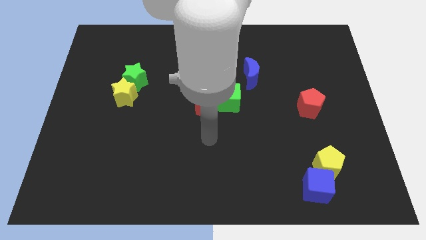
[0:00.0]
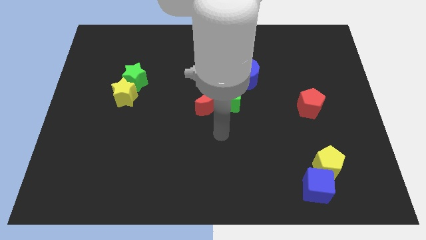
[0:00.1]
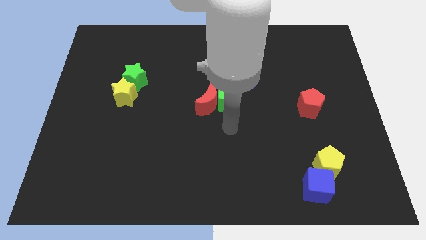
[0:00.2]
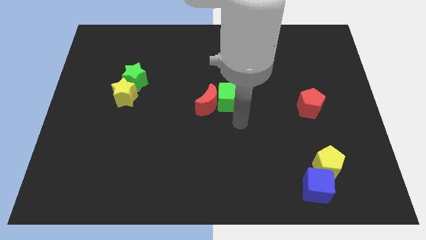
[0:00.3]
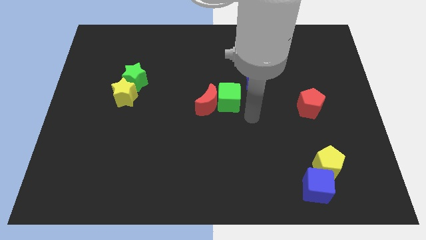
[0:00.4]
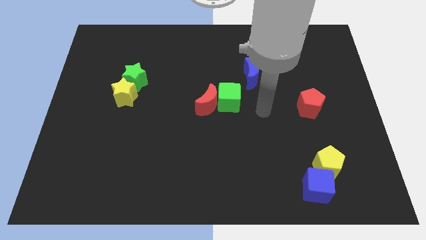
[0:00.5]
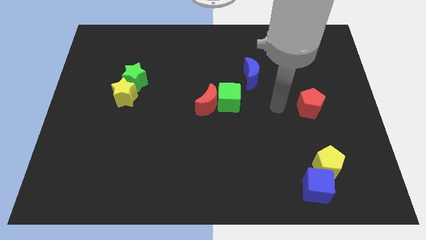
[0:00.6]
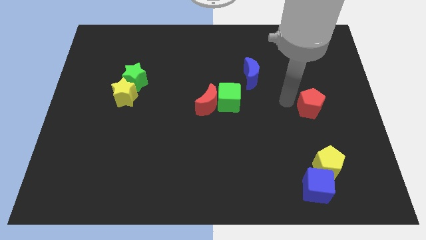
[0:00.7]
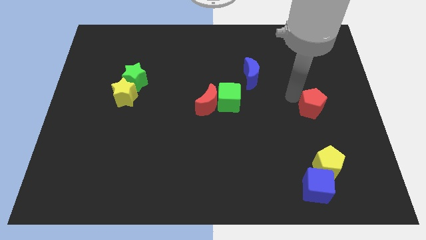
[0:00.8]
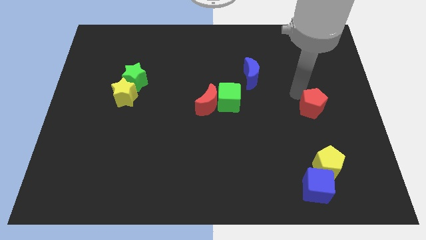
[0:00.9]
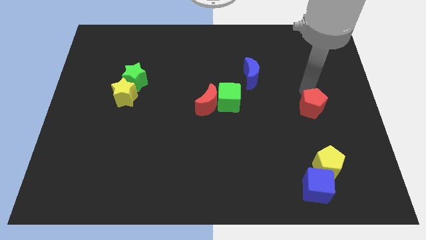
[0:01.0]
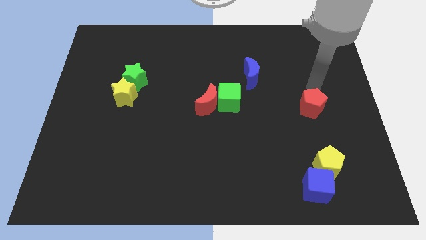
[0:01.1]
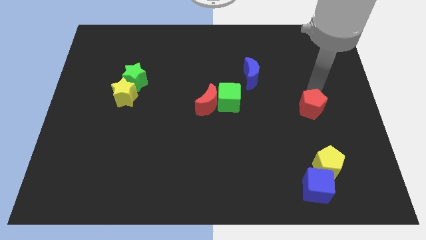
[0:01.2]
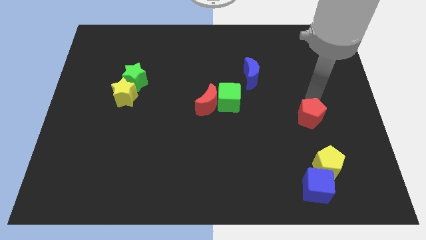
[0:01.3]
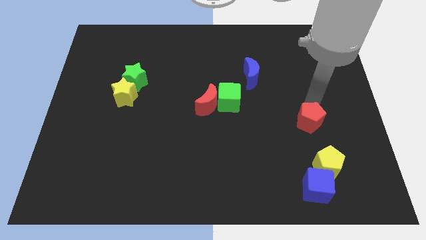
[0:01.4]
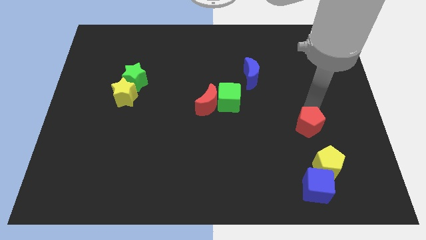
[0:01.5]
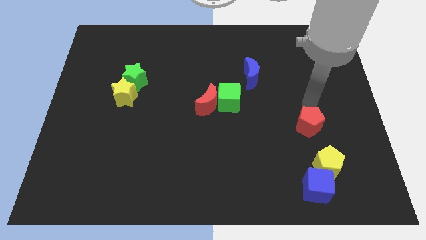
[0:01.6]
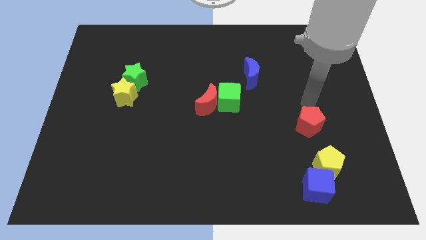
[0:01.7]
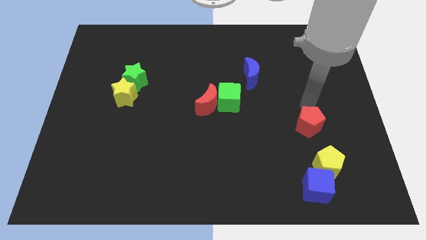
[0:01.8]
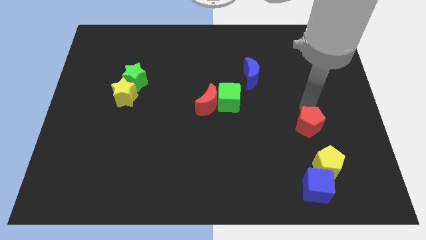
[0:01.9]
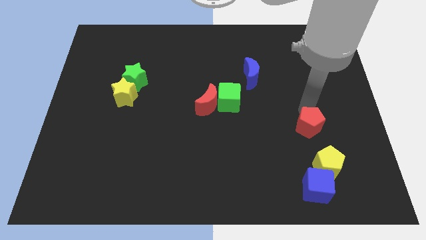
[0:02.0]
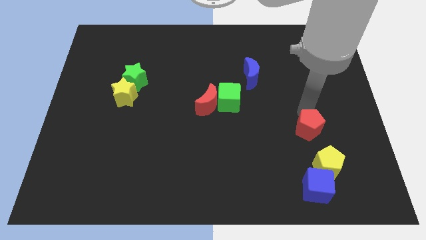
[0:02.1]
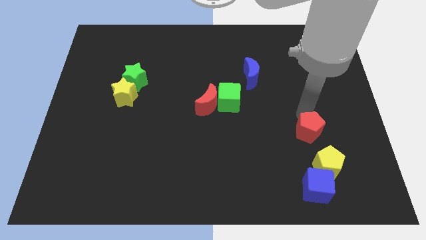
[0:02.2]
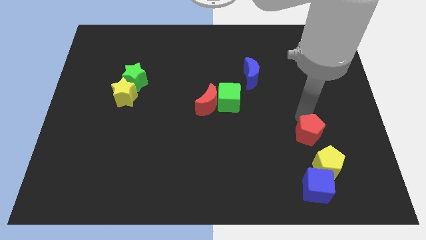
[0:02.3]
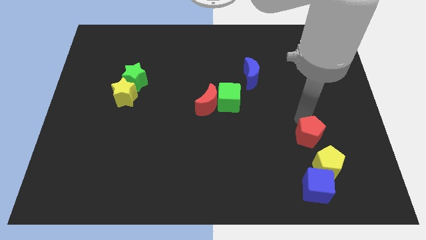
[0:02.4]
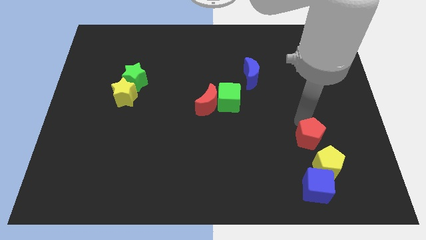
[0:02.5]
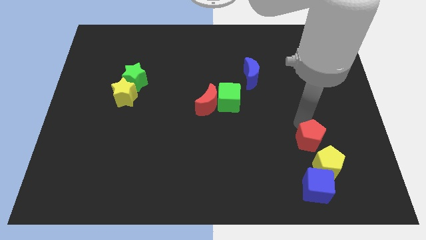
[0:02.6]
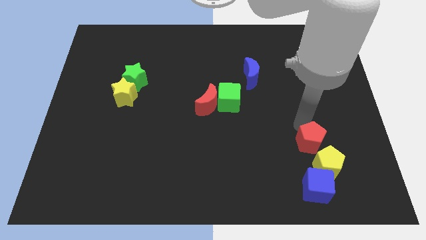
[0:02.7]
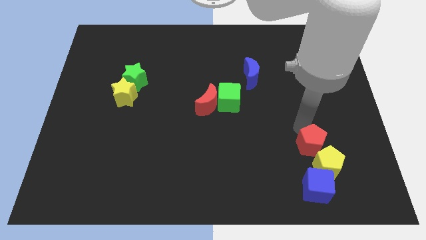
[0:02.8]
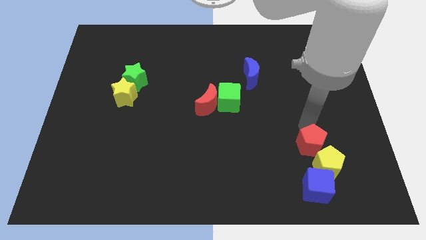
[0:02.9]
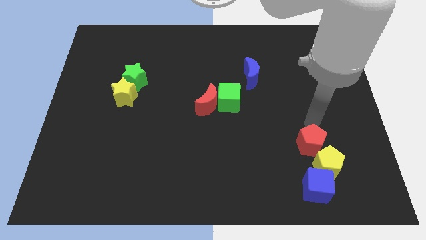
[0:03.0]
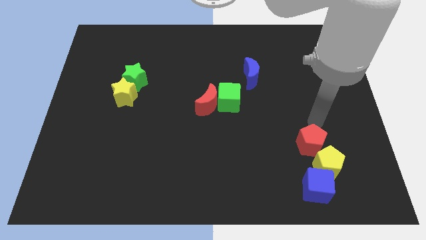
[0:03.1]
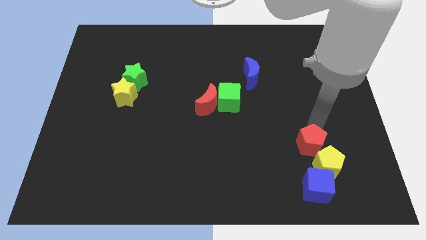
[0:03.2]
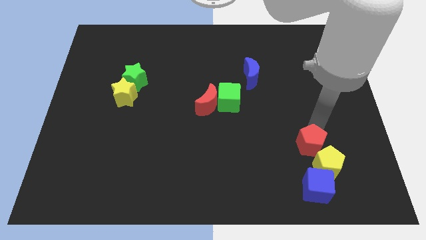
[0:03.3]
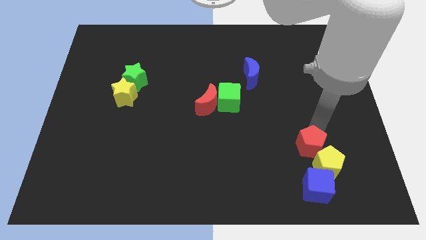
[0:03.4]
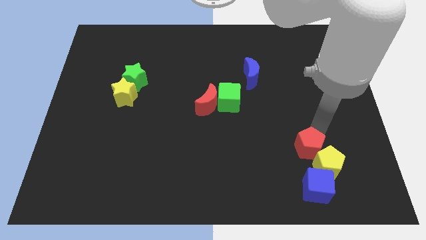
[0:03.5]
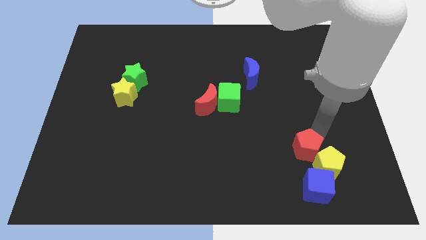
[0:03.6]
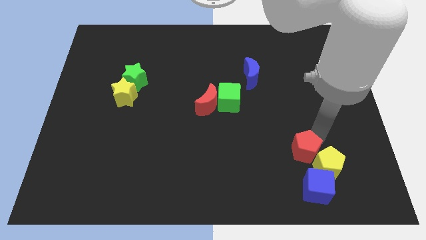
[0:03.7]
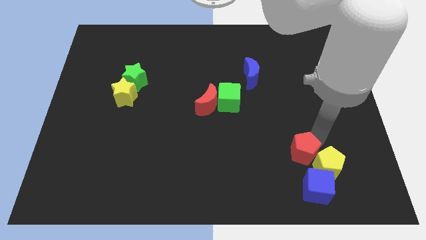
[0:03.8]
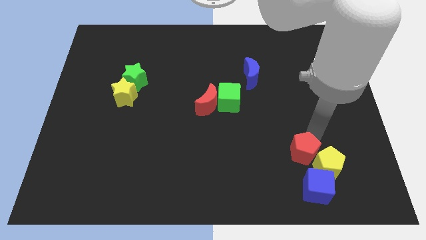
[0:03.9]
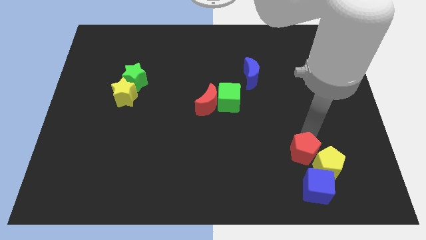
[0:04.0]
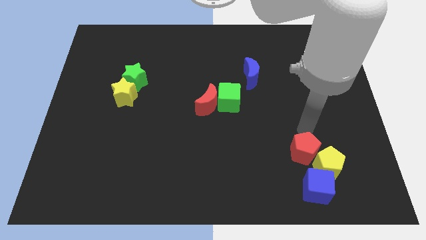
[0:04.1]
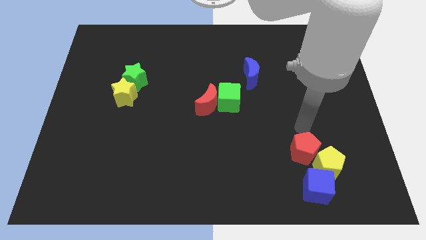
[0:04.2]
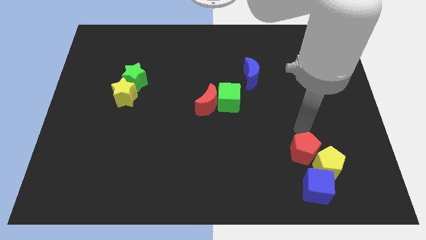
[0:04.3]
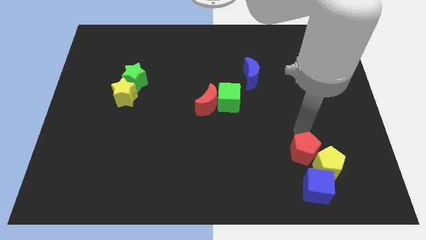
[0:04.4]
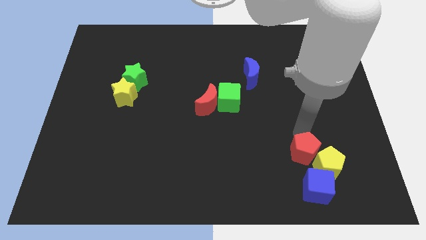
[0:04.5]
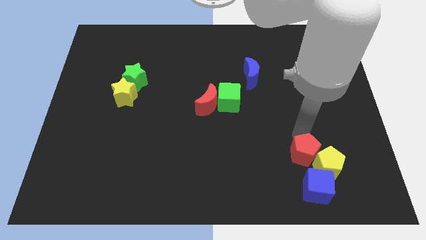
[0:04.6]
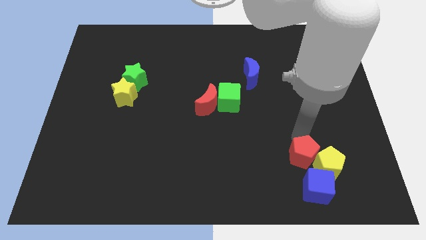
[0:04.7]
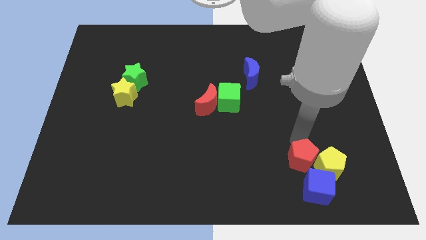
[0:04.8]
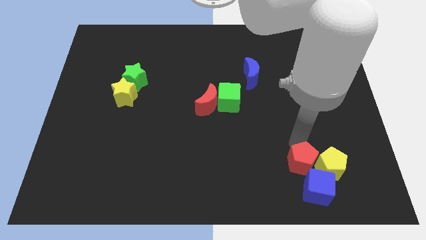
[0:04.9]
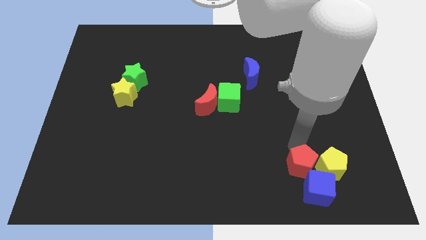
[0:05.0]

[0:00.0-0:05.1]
move the red pentagon to the blue cube

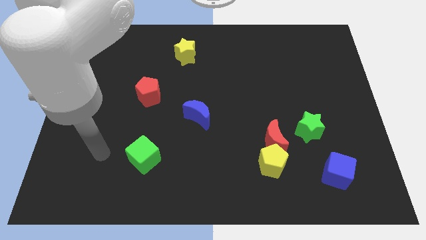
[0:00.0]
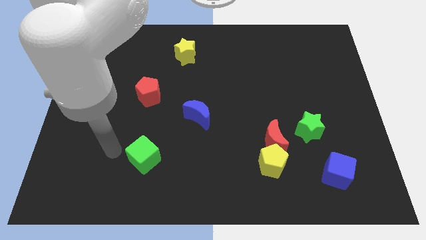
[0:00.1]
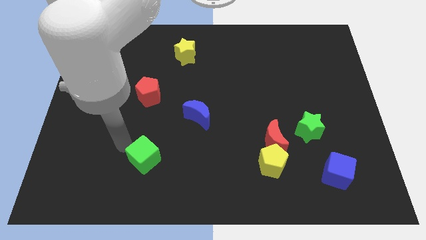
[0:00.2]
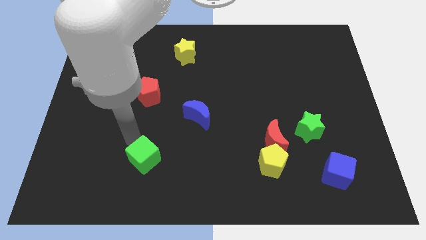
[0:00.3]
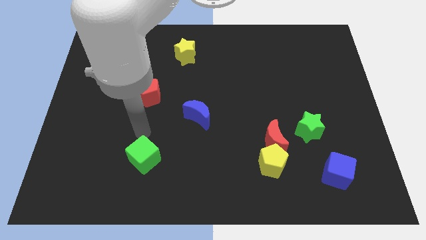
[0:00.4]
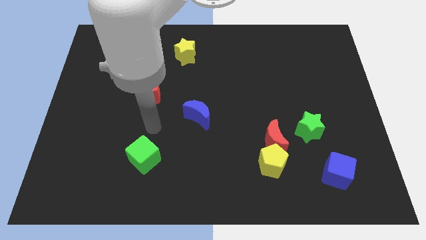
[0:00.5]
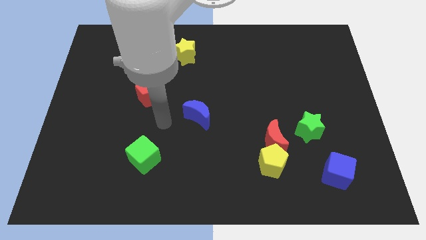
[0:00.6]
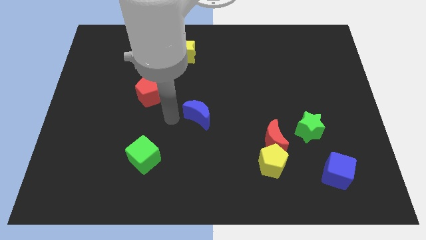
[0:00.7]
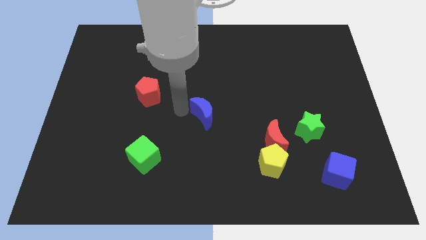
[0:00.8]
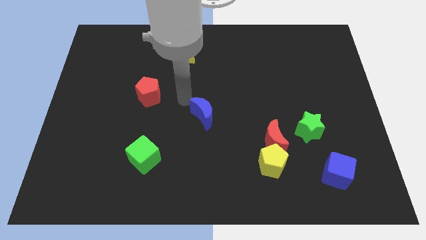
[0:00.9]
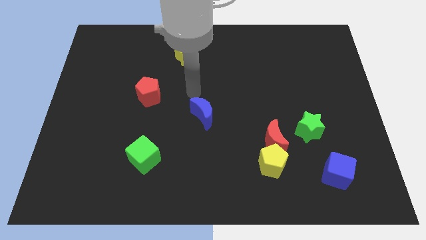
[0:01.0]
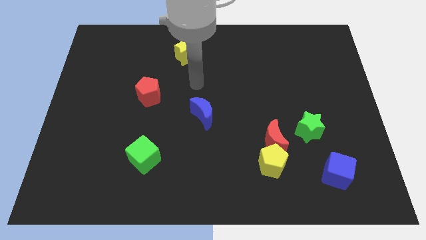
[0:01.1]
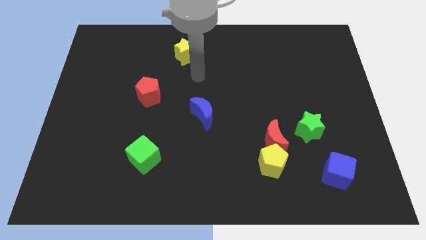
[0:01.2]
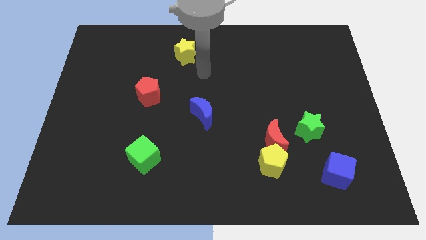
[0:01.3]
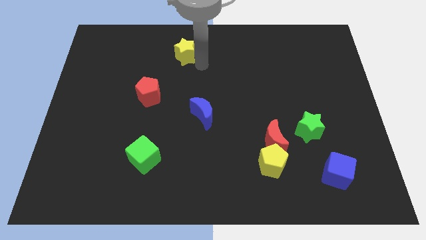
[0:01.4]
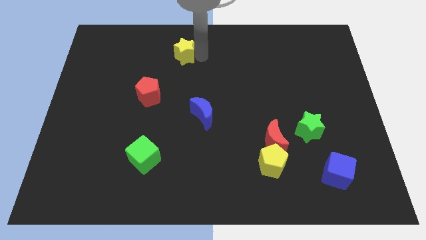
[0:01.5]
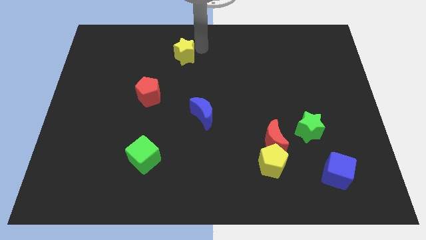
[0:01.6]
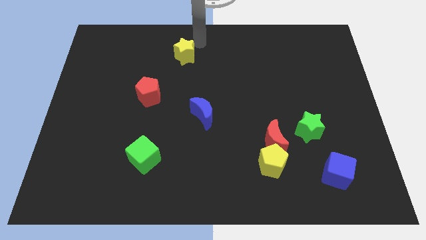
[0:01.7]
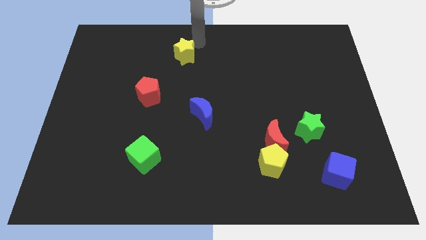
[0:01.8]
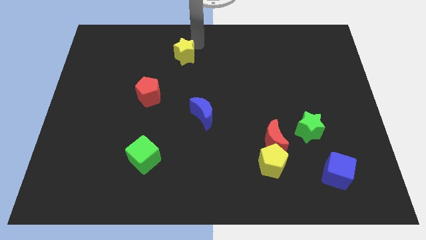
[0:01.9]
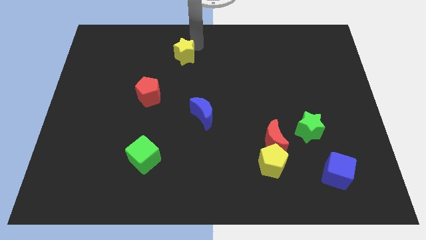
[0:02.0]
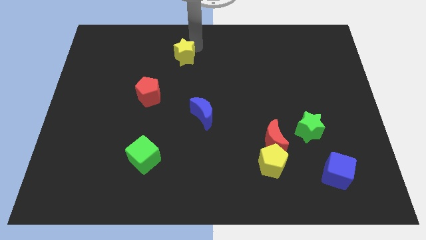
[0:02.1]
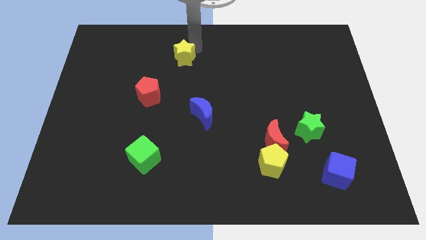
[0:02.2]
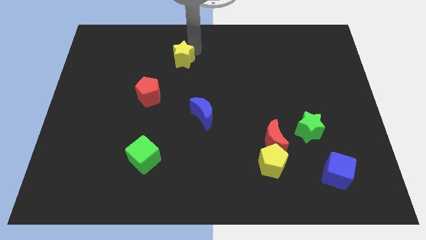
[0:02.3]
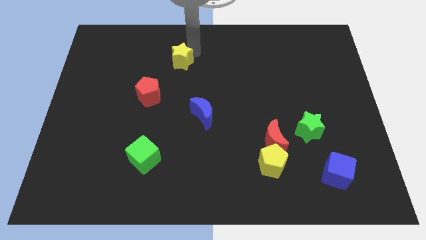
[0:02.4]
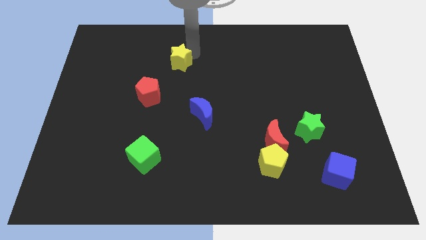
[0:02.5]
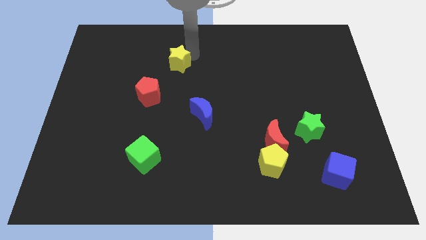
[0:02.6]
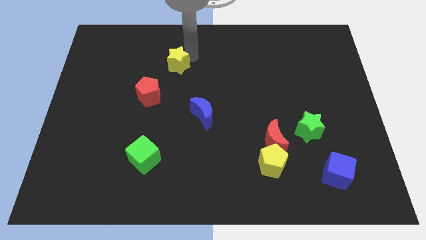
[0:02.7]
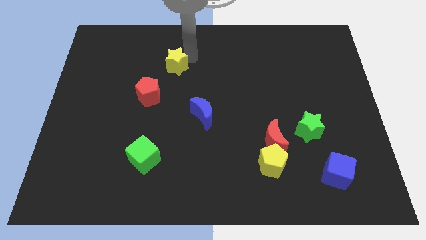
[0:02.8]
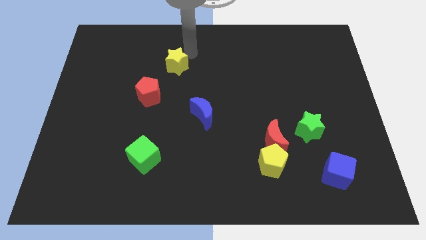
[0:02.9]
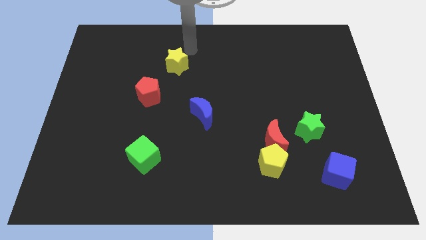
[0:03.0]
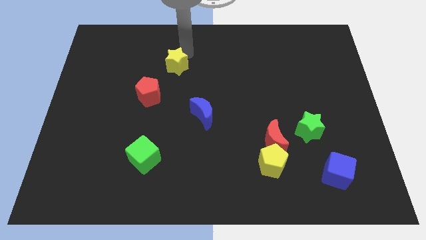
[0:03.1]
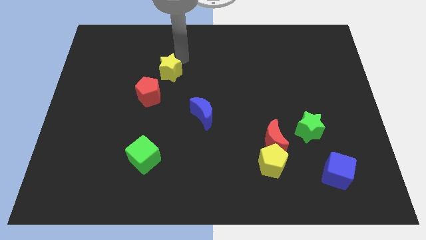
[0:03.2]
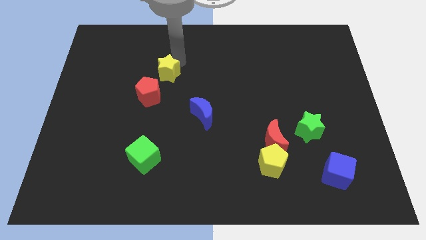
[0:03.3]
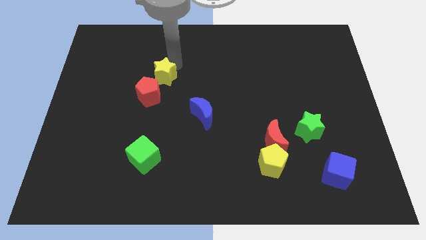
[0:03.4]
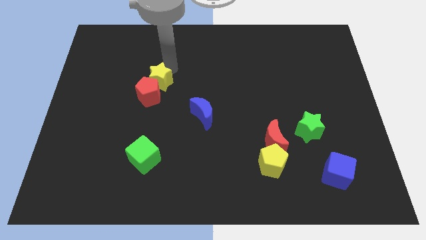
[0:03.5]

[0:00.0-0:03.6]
push the yellow star close to the red pentagon
